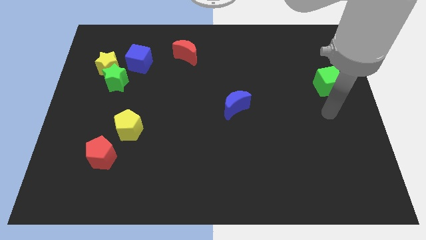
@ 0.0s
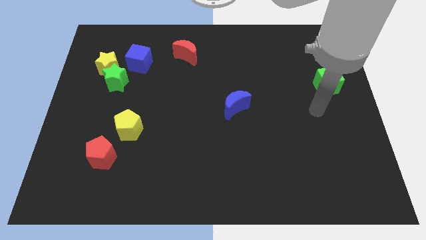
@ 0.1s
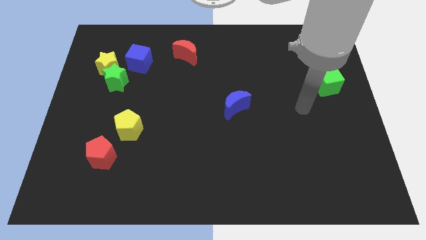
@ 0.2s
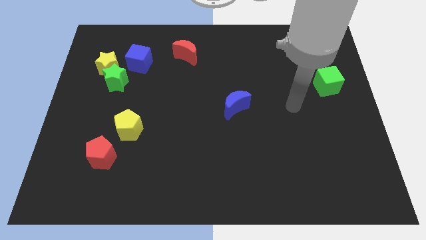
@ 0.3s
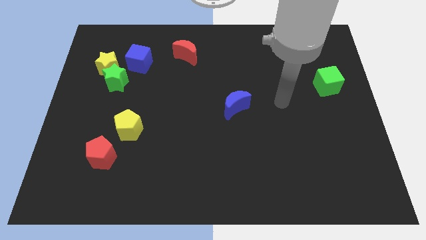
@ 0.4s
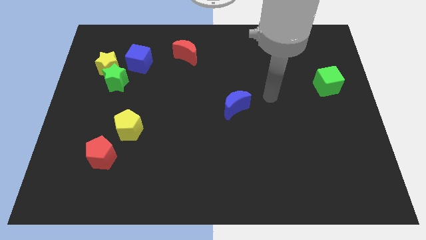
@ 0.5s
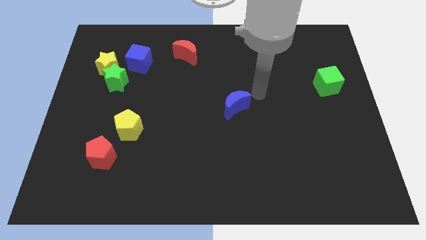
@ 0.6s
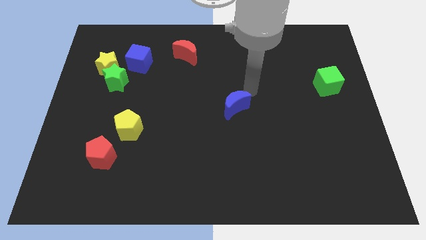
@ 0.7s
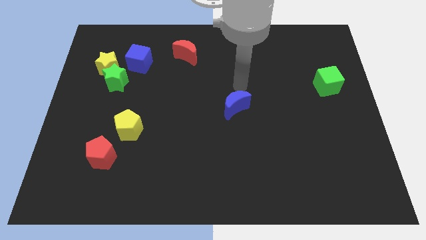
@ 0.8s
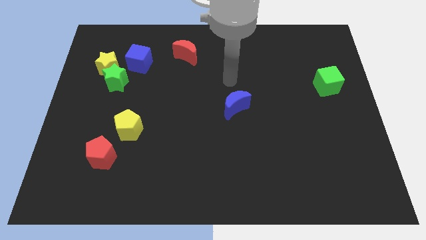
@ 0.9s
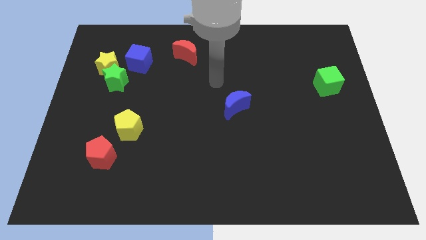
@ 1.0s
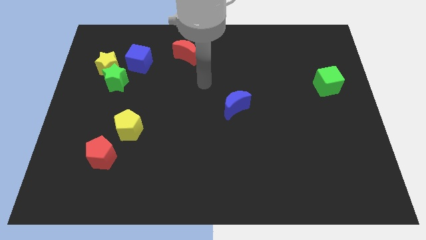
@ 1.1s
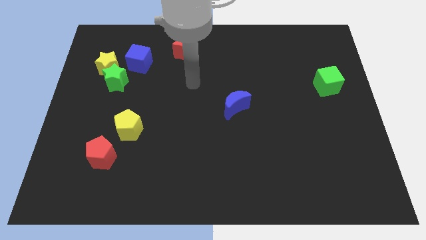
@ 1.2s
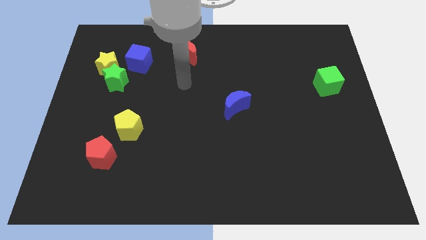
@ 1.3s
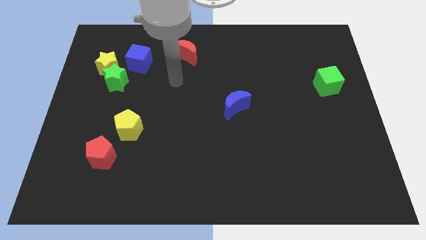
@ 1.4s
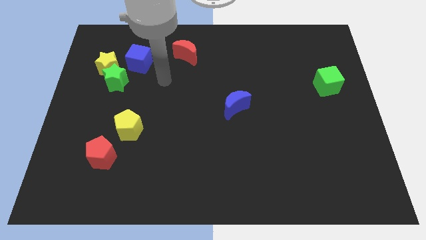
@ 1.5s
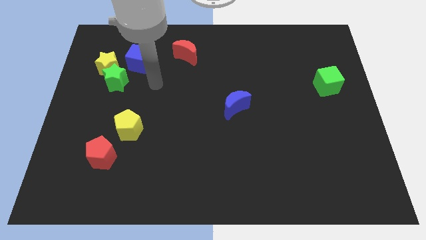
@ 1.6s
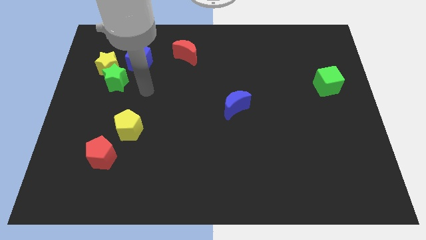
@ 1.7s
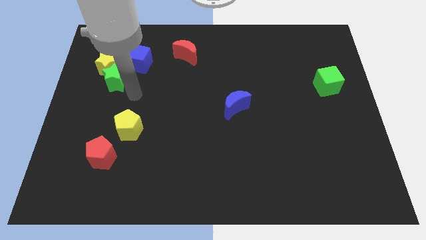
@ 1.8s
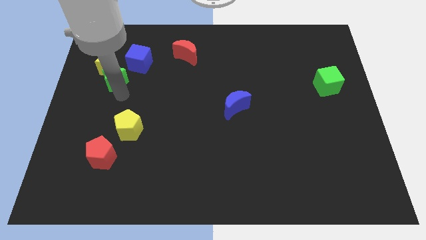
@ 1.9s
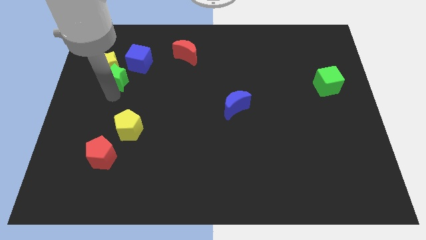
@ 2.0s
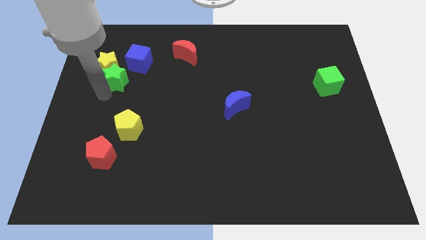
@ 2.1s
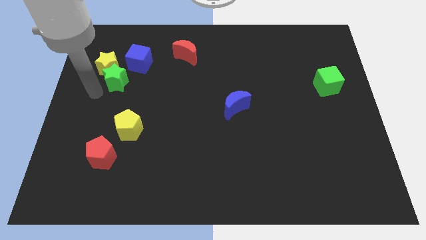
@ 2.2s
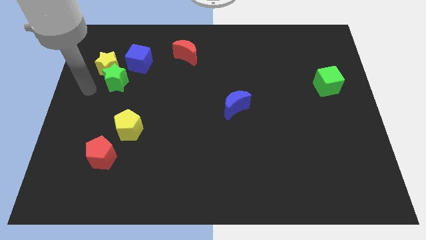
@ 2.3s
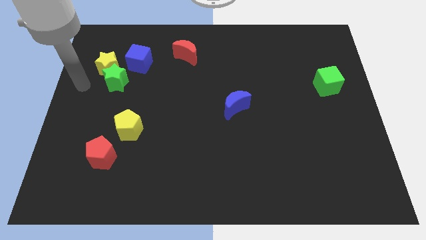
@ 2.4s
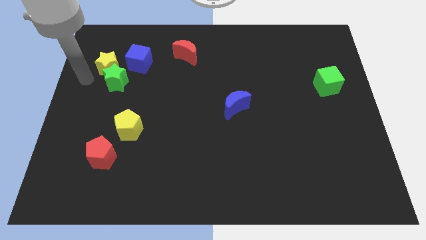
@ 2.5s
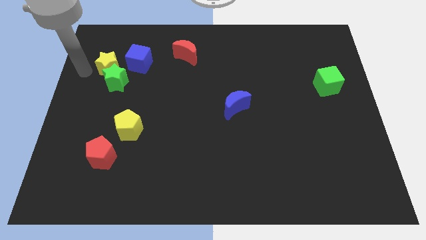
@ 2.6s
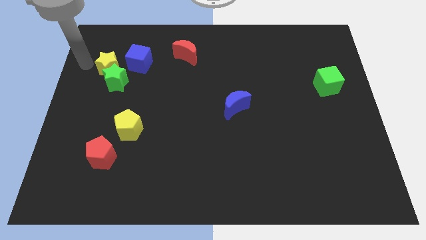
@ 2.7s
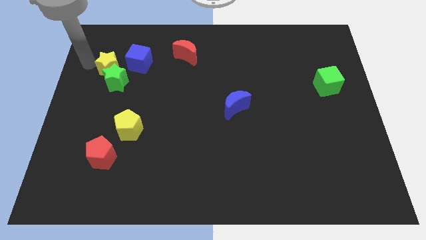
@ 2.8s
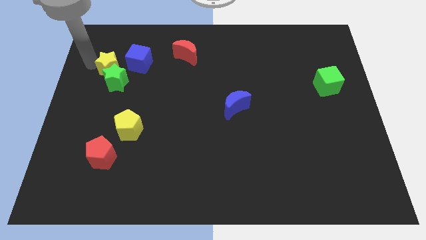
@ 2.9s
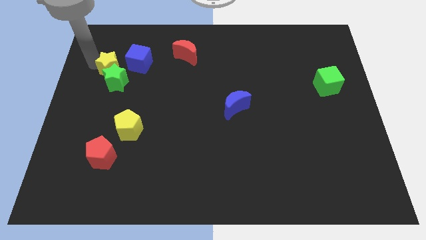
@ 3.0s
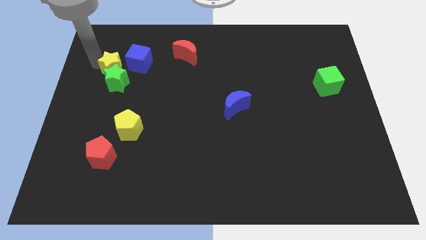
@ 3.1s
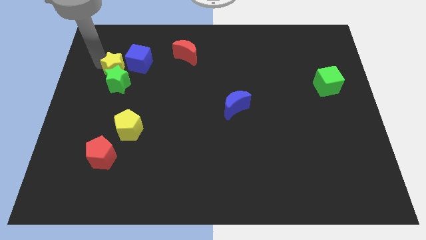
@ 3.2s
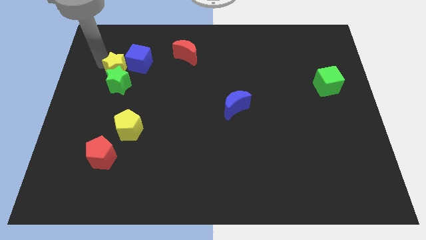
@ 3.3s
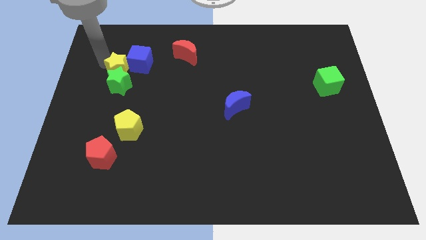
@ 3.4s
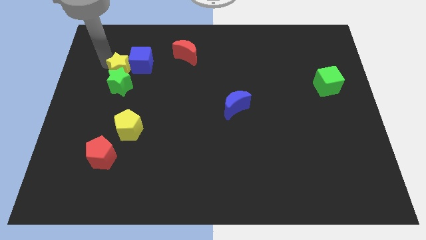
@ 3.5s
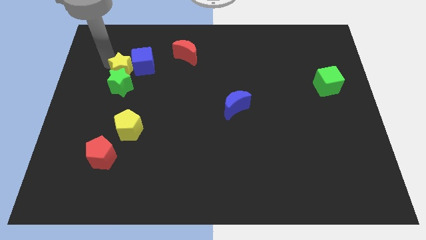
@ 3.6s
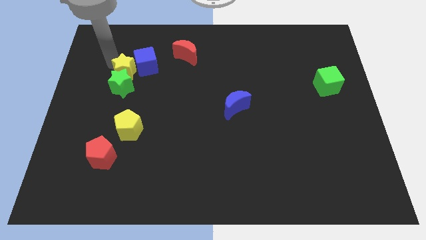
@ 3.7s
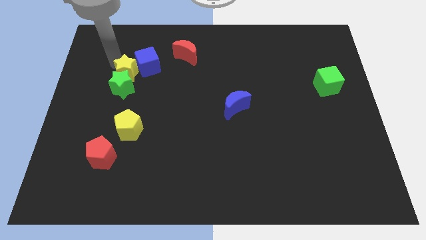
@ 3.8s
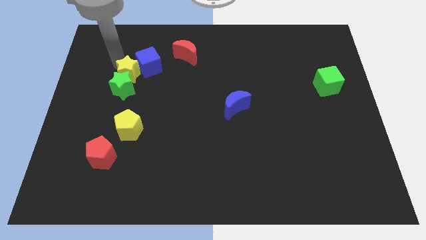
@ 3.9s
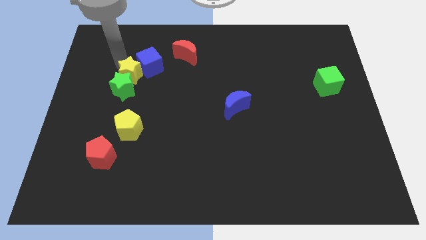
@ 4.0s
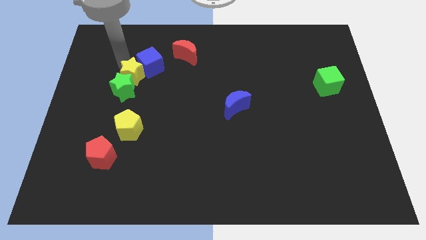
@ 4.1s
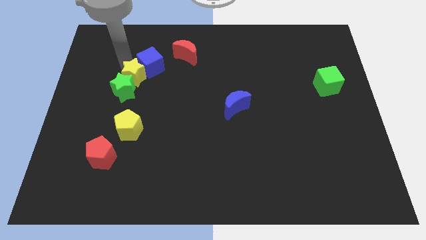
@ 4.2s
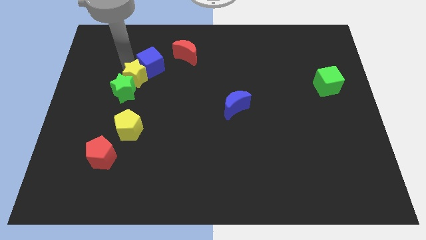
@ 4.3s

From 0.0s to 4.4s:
move the yellow star a bit down and then to the right
